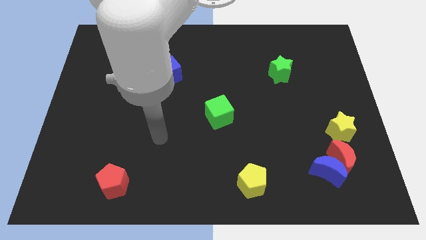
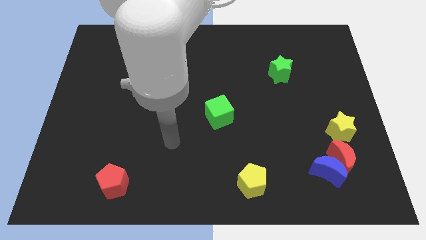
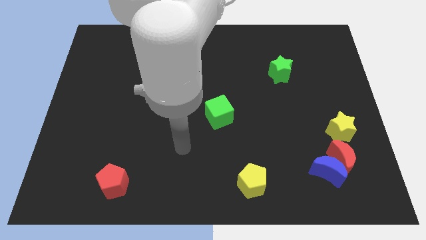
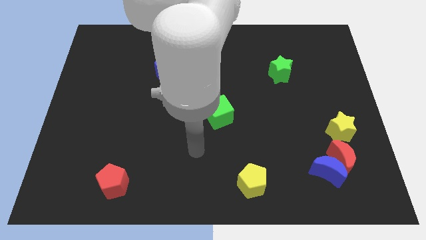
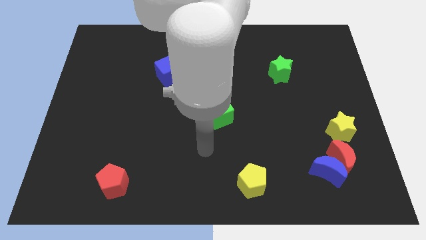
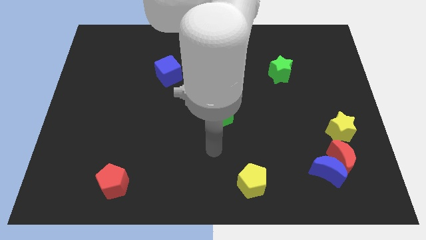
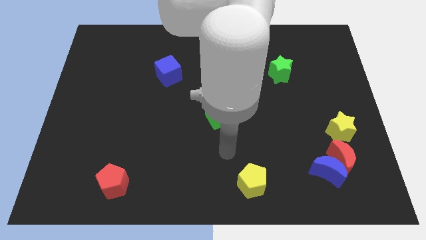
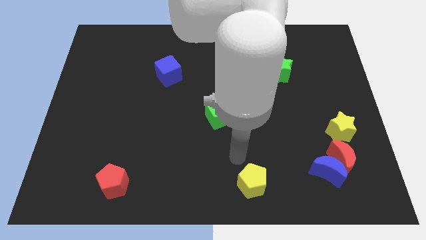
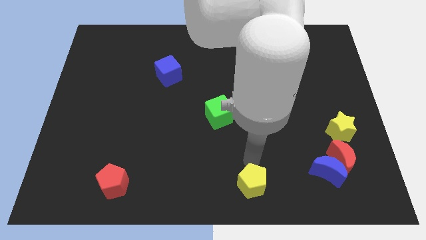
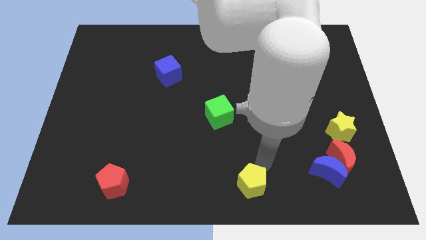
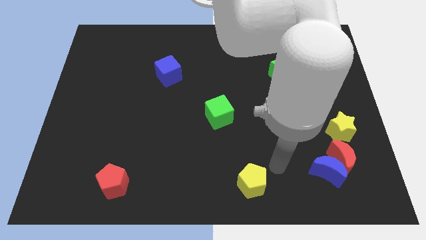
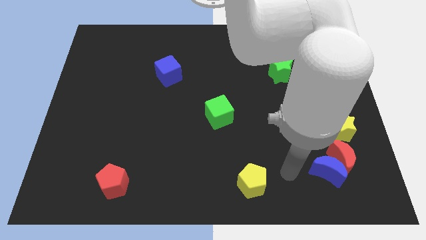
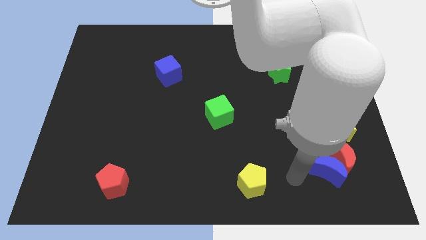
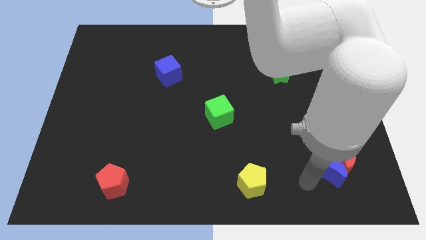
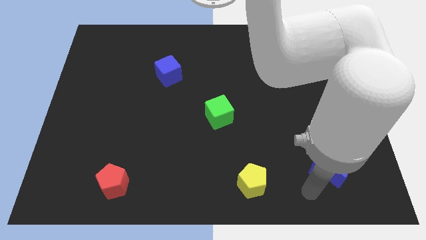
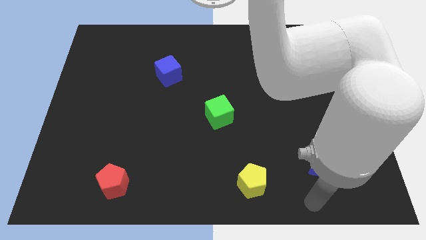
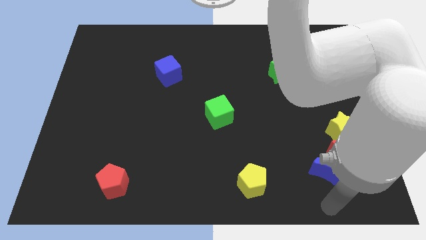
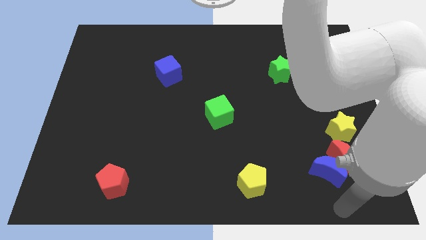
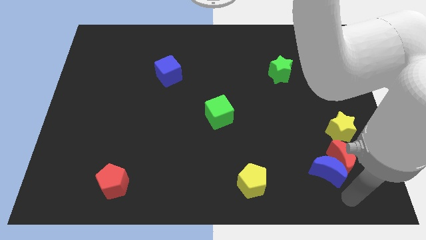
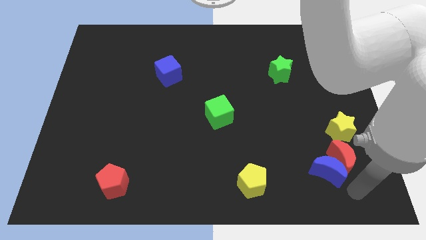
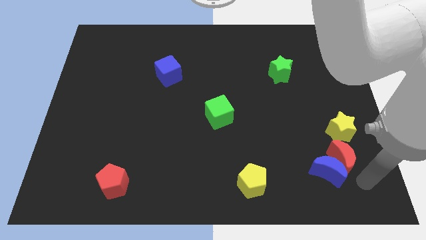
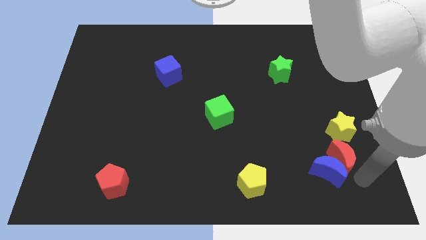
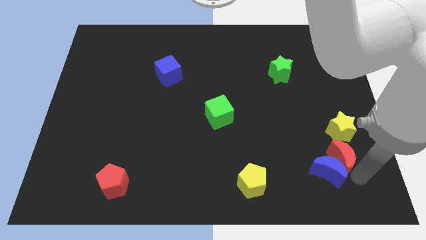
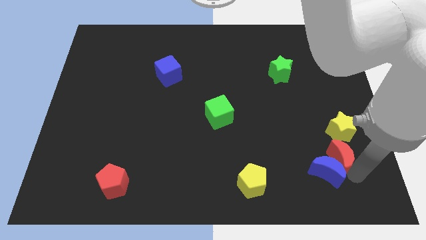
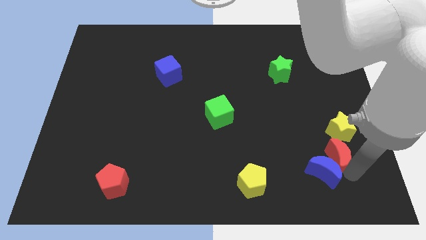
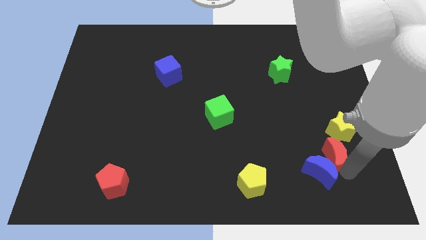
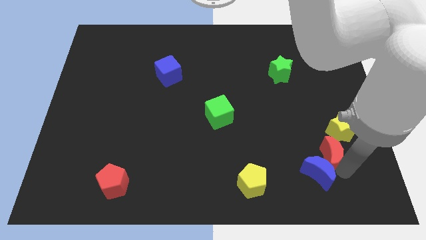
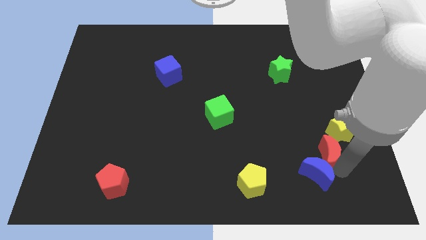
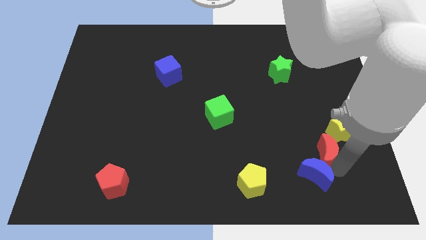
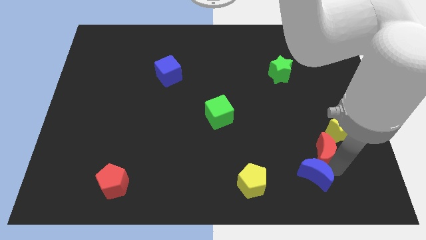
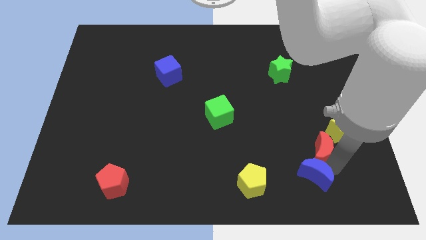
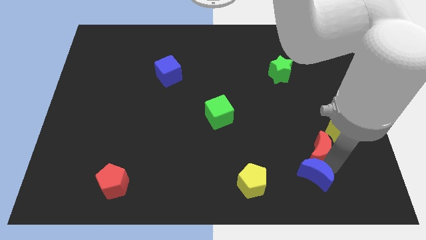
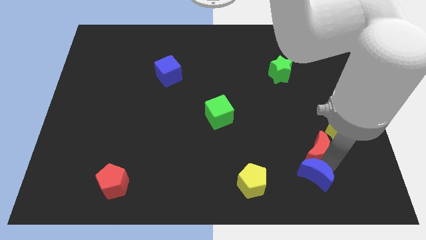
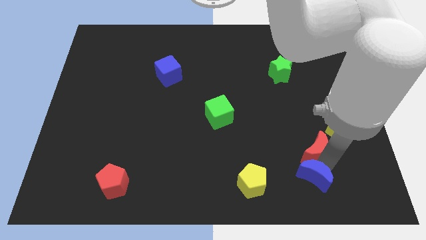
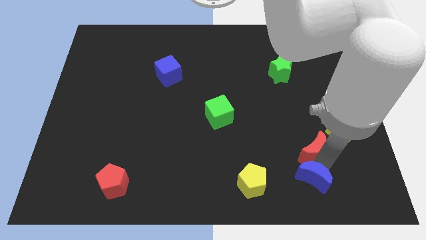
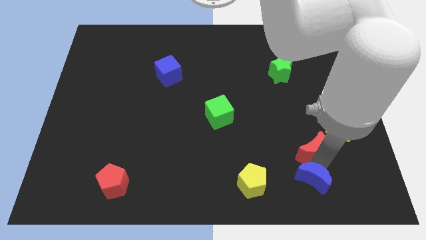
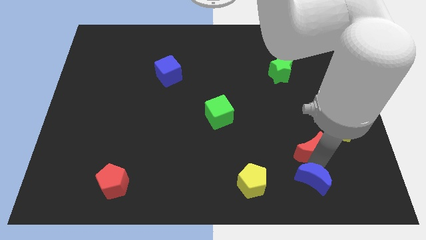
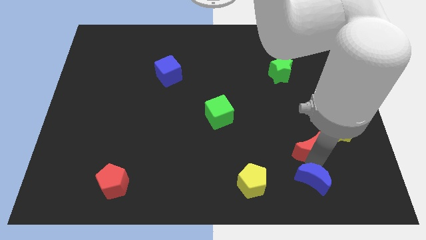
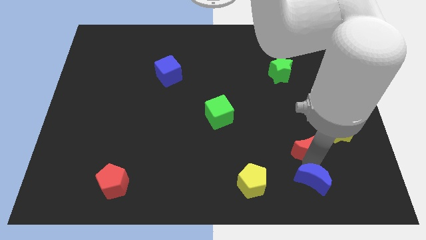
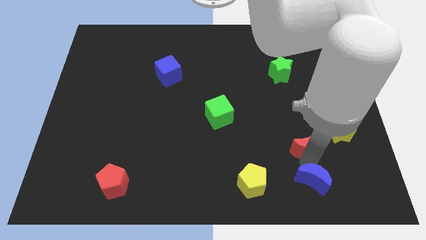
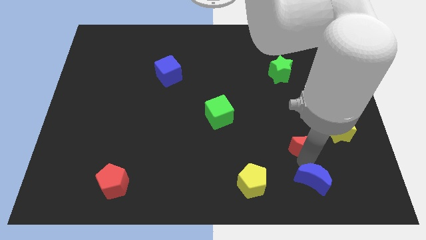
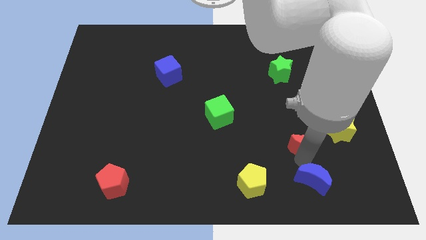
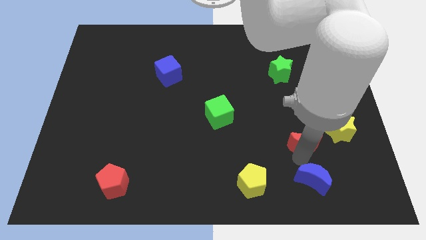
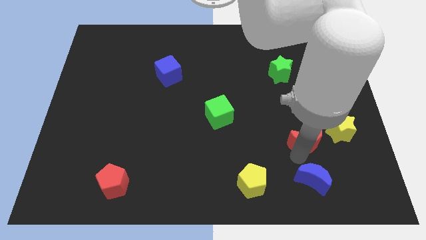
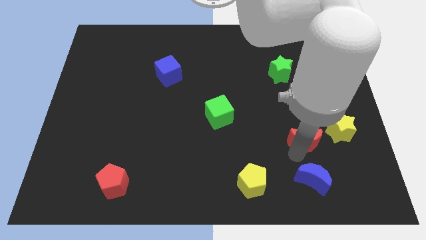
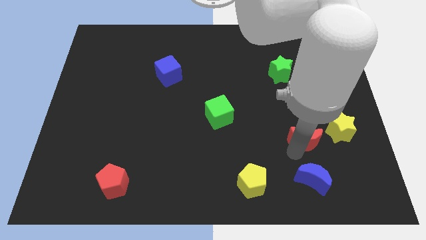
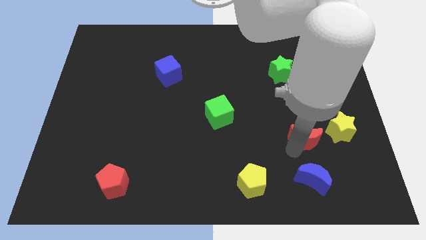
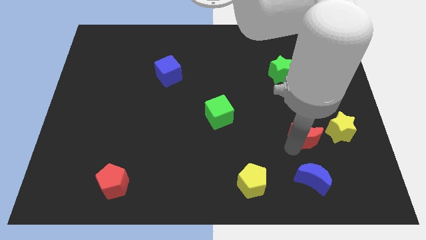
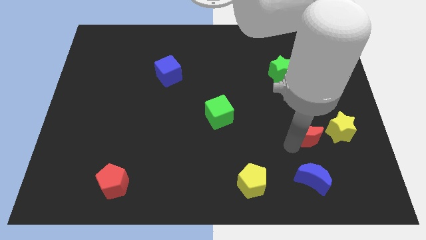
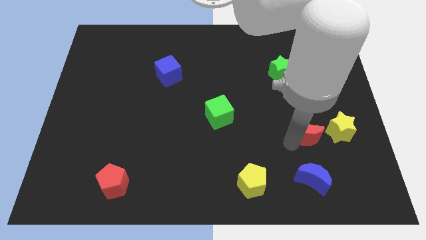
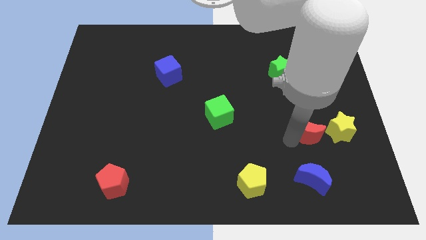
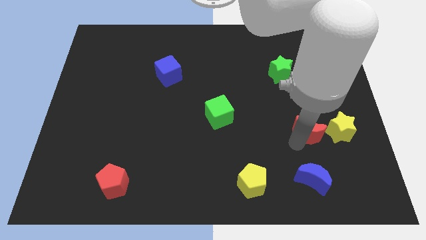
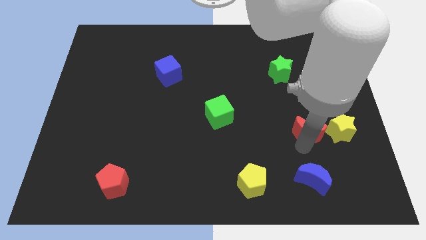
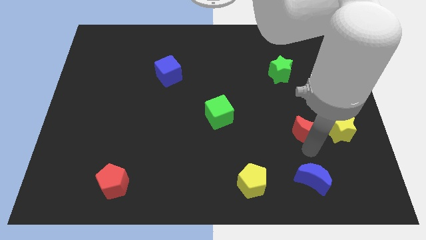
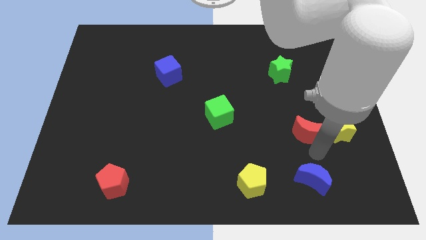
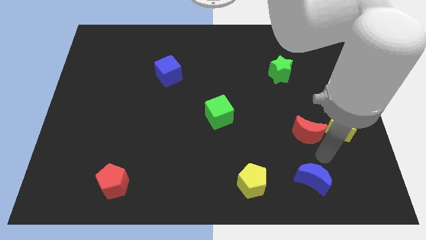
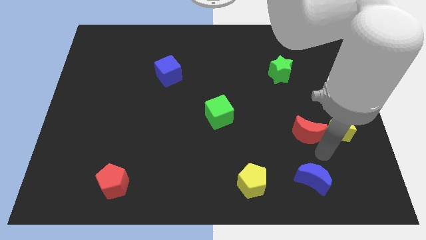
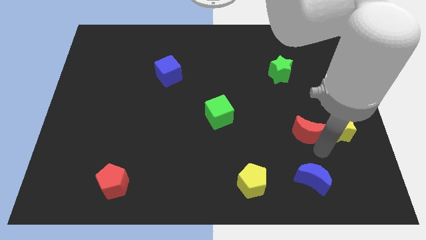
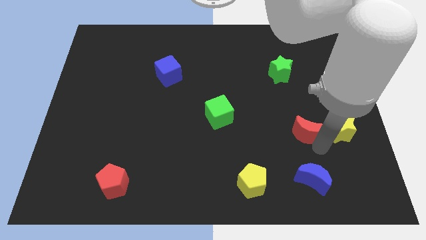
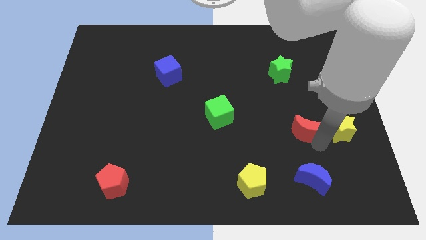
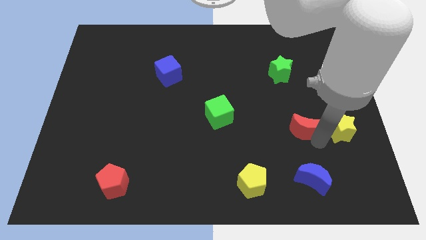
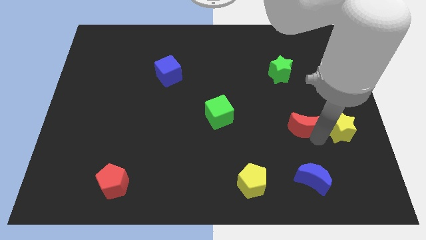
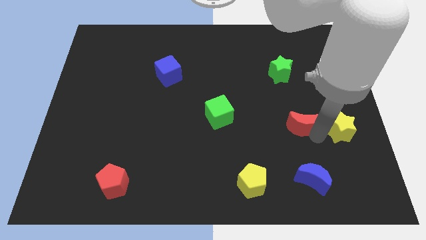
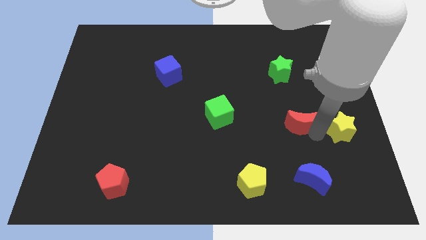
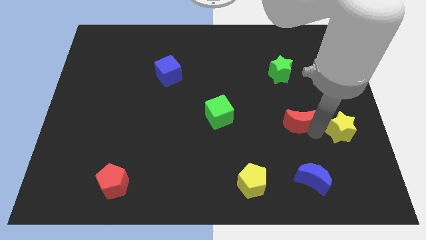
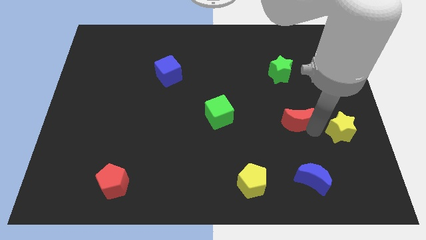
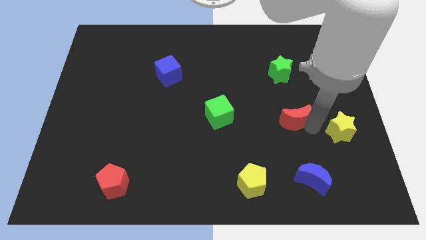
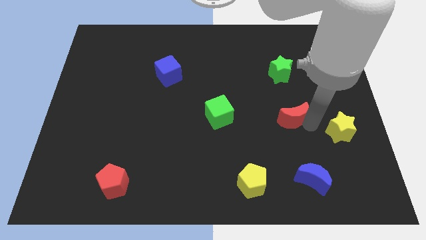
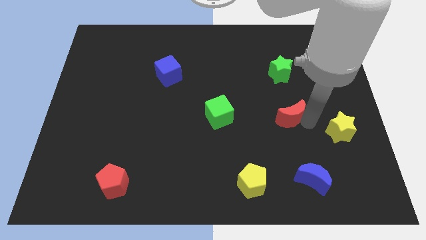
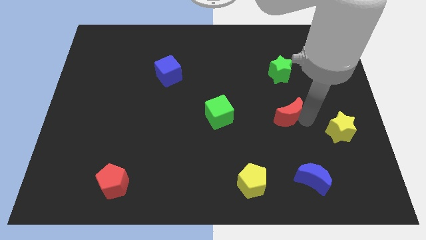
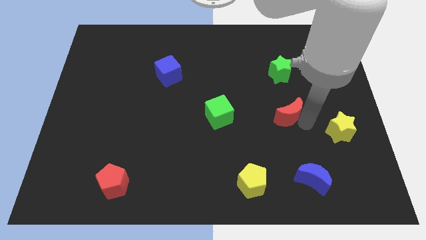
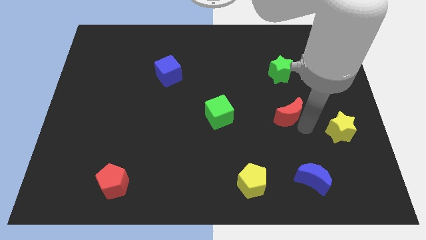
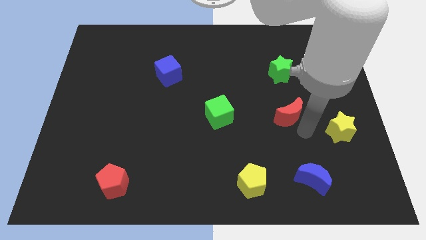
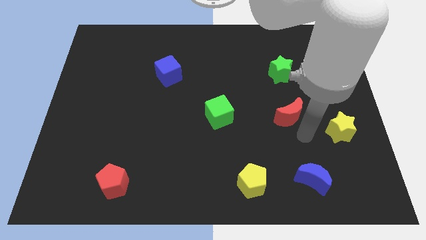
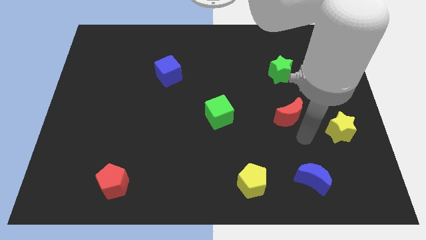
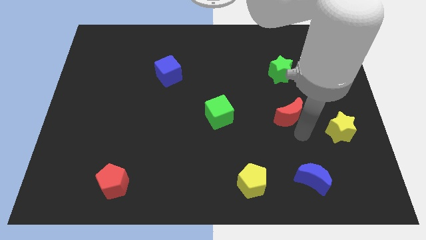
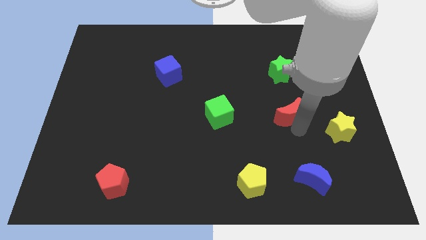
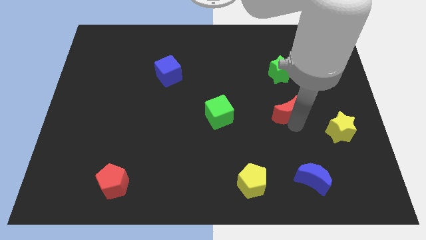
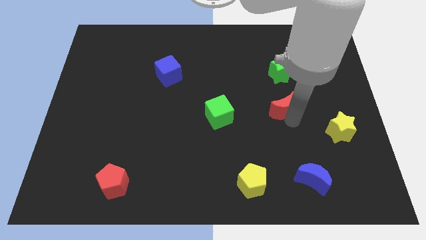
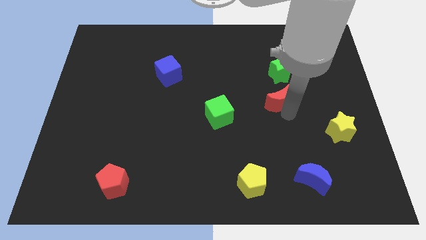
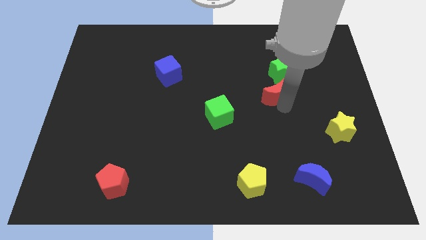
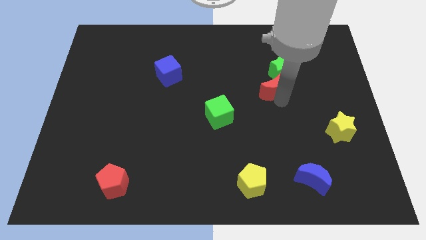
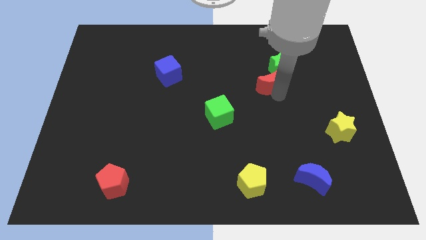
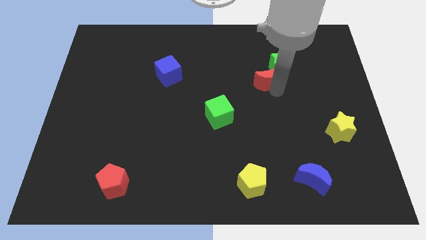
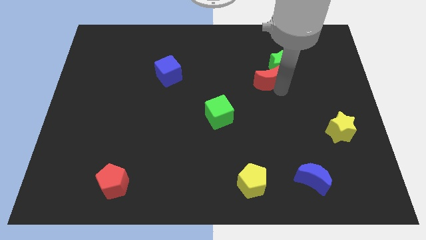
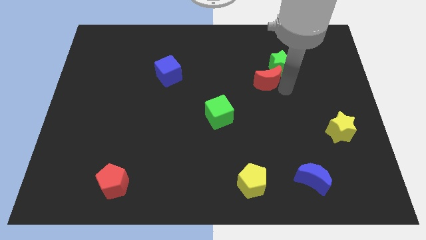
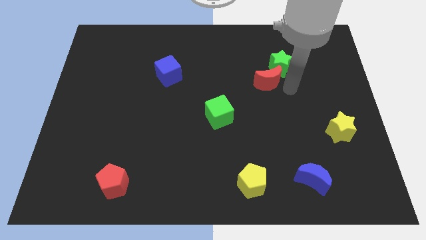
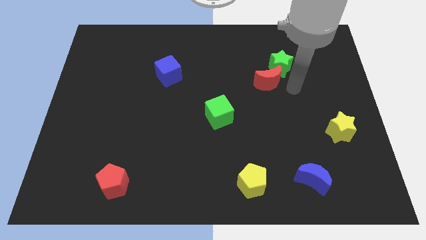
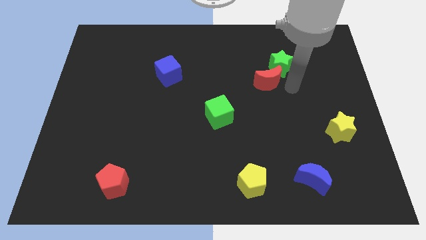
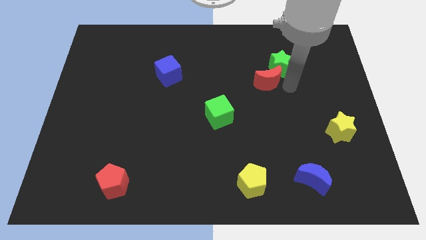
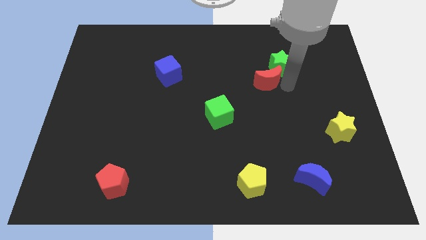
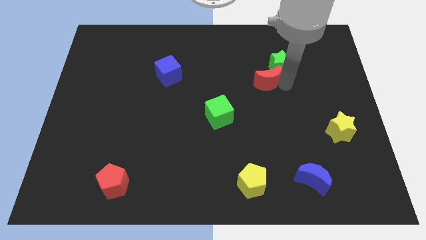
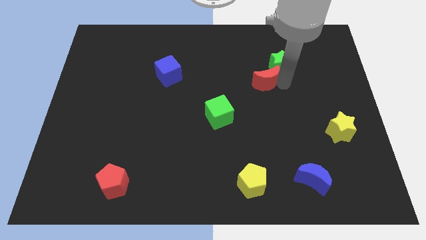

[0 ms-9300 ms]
put the red moon left of the green star
